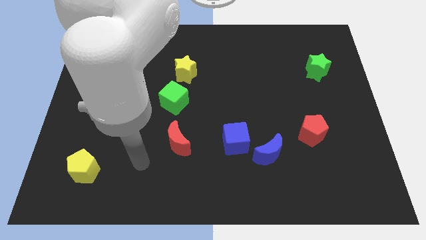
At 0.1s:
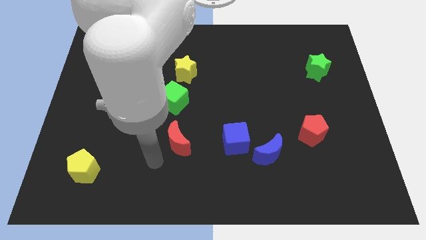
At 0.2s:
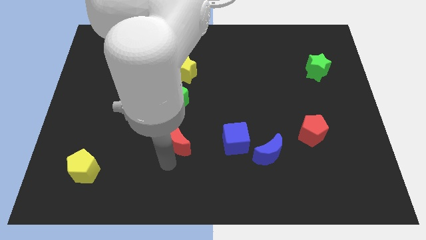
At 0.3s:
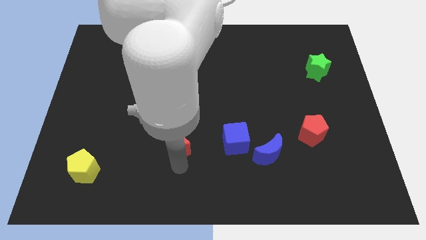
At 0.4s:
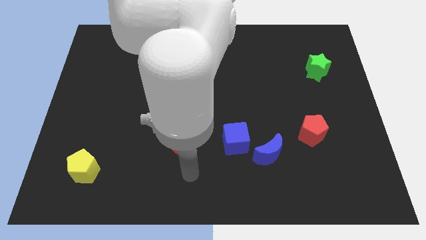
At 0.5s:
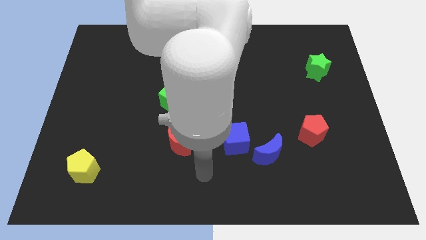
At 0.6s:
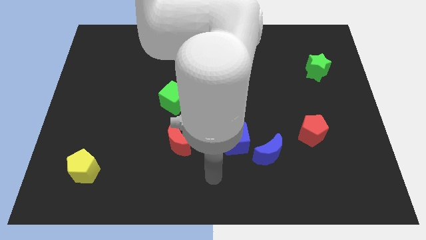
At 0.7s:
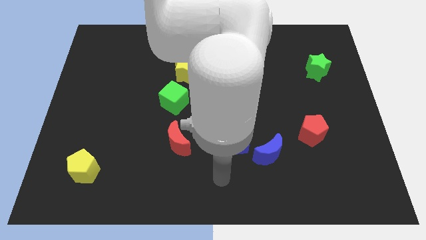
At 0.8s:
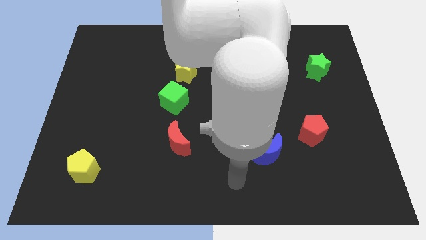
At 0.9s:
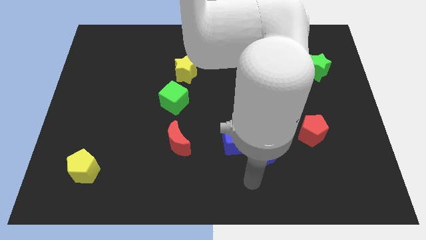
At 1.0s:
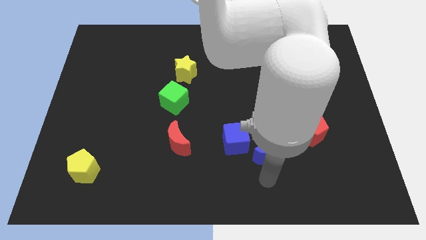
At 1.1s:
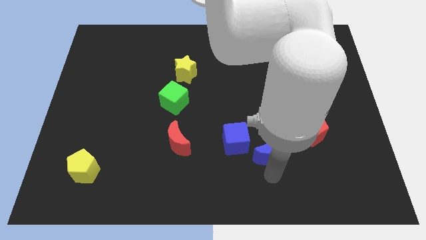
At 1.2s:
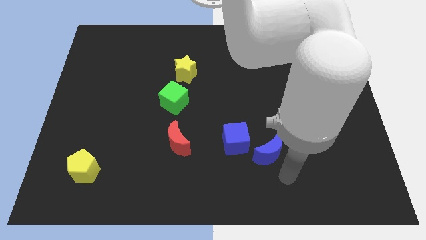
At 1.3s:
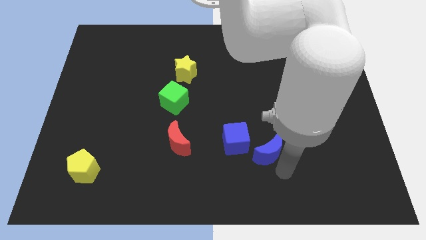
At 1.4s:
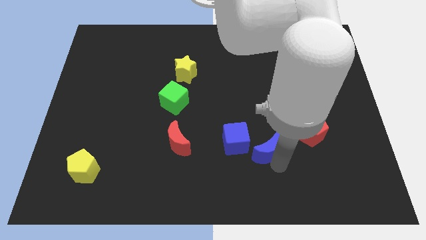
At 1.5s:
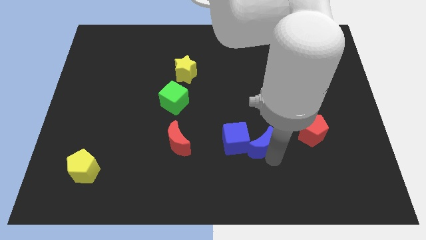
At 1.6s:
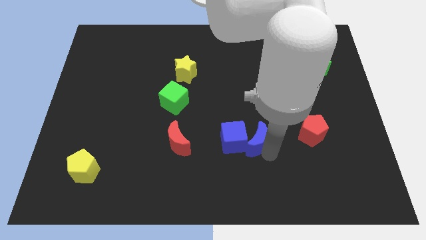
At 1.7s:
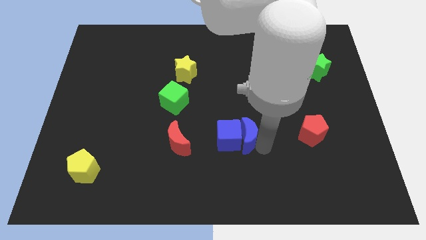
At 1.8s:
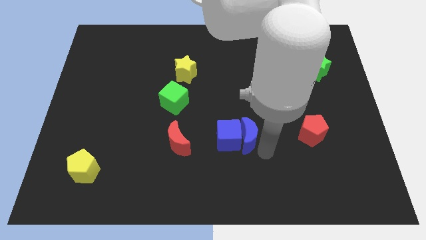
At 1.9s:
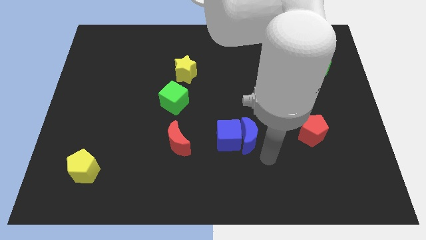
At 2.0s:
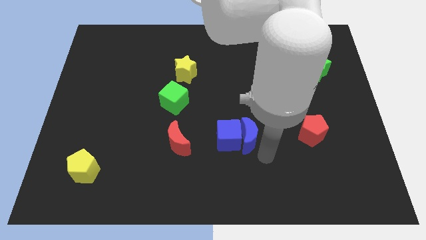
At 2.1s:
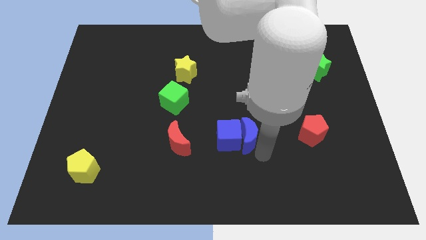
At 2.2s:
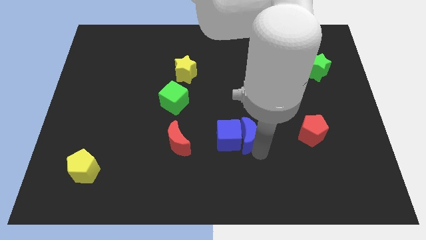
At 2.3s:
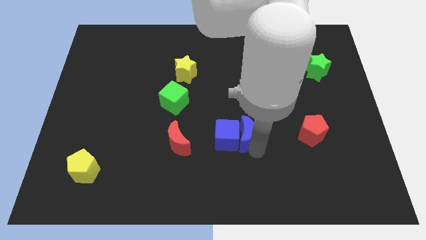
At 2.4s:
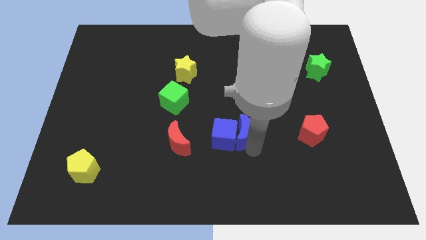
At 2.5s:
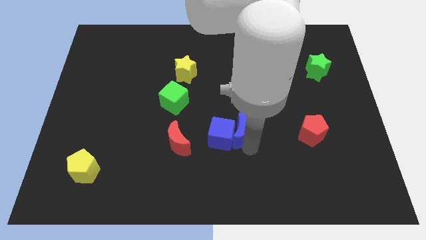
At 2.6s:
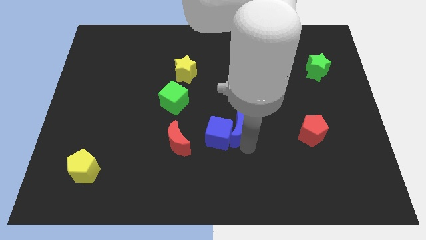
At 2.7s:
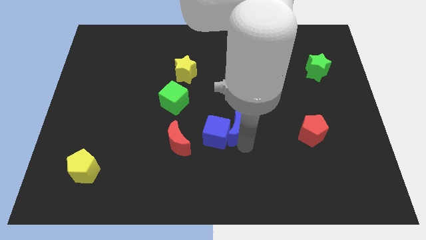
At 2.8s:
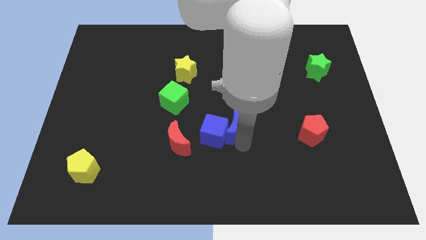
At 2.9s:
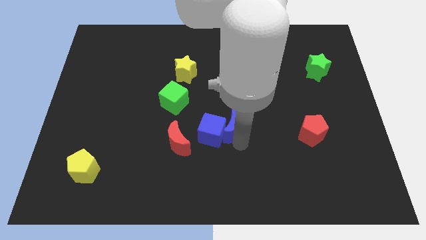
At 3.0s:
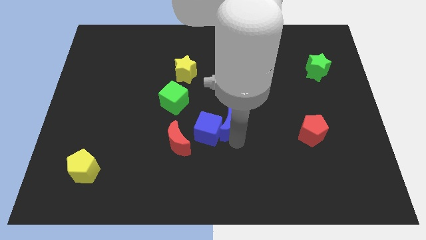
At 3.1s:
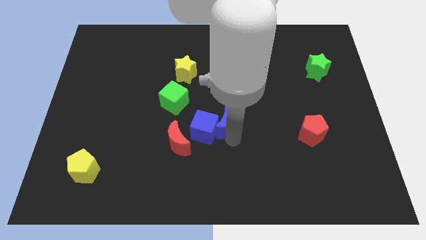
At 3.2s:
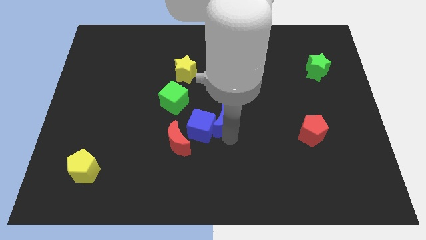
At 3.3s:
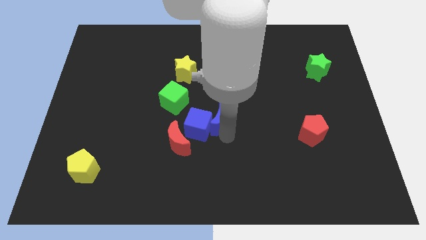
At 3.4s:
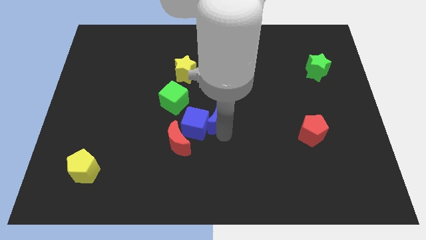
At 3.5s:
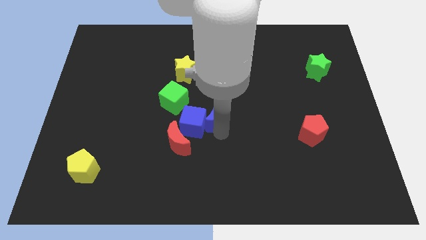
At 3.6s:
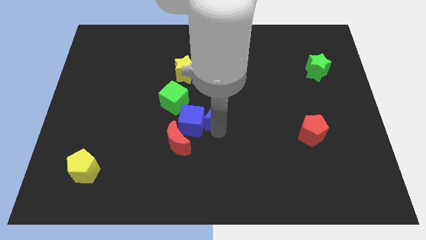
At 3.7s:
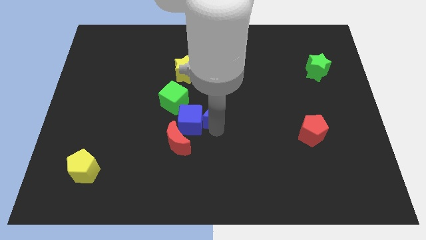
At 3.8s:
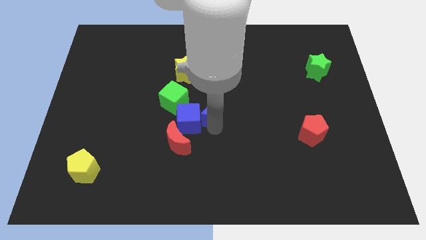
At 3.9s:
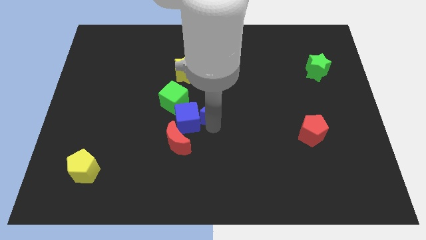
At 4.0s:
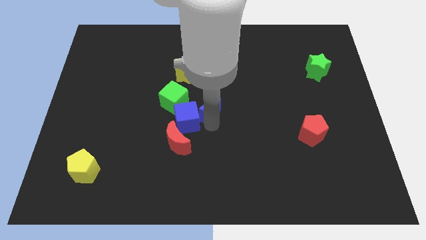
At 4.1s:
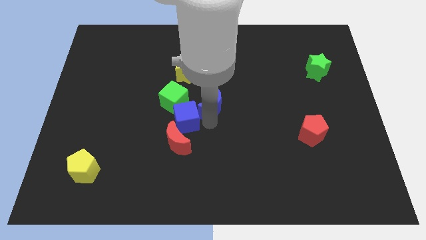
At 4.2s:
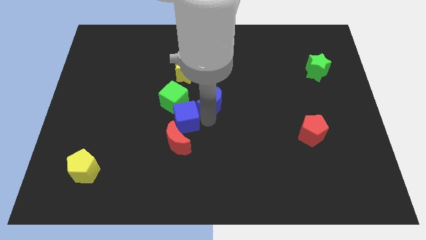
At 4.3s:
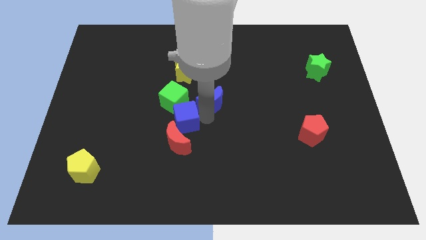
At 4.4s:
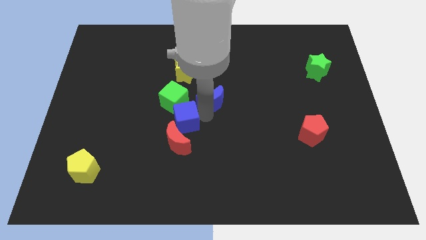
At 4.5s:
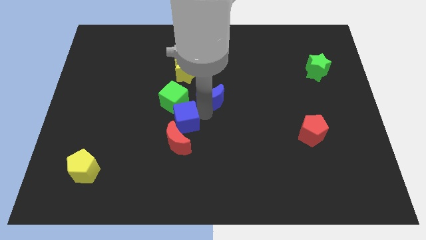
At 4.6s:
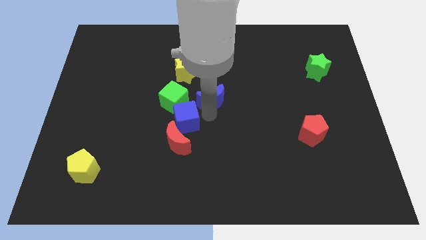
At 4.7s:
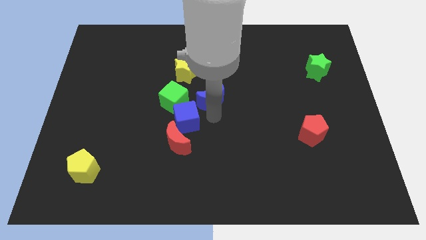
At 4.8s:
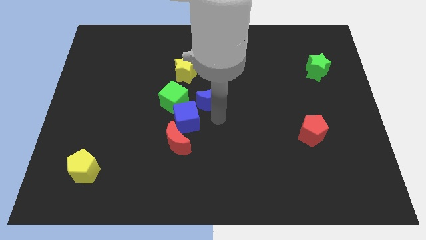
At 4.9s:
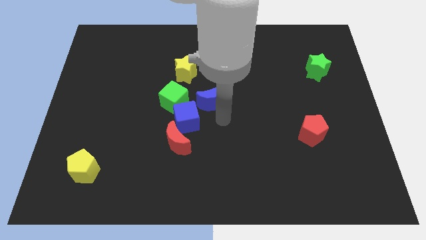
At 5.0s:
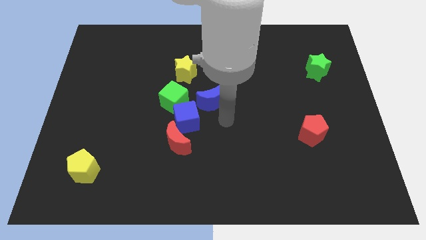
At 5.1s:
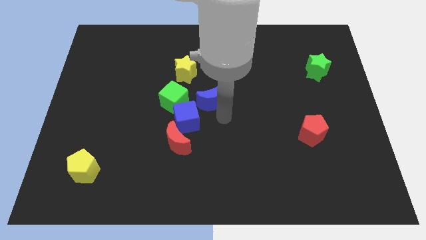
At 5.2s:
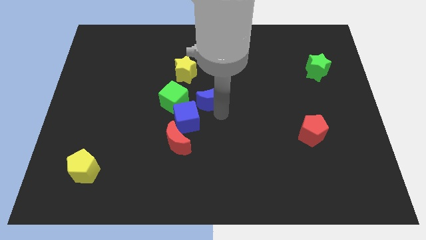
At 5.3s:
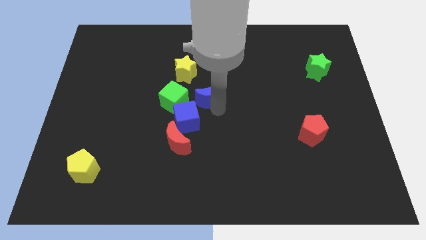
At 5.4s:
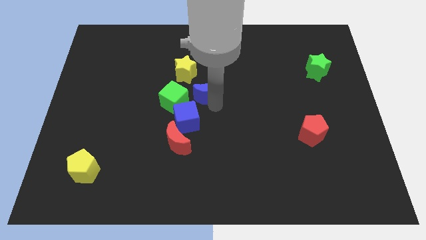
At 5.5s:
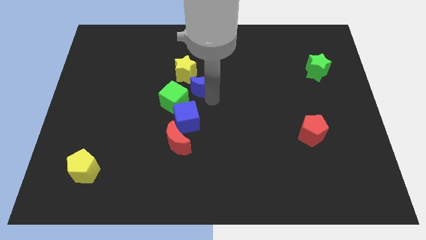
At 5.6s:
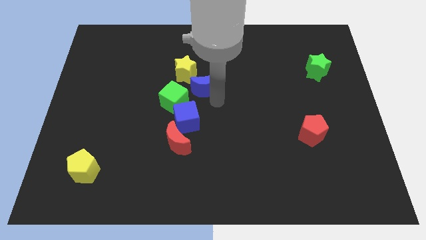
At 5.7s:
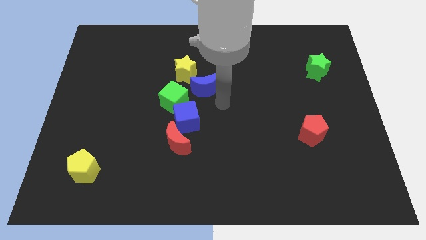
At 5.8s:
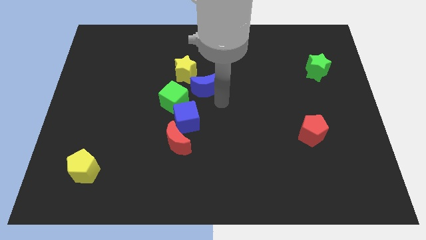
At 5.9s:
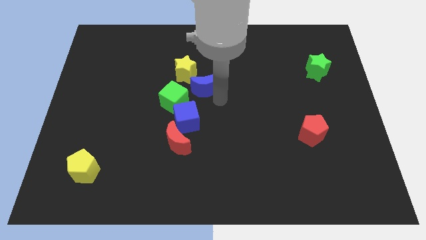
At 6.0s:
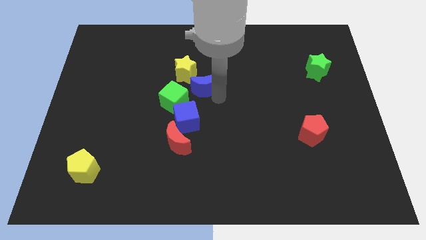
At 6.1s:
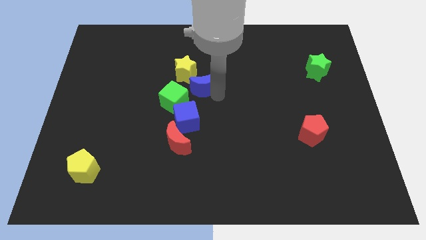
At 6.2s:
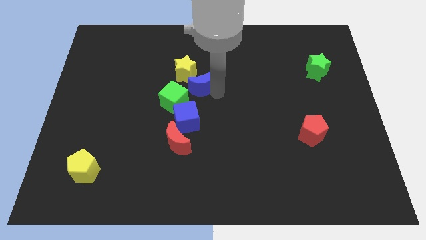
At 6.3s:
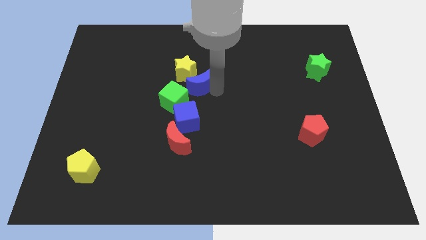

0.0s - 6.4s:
slide the blue moon to the yellow star
